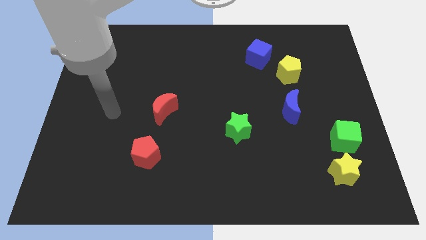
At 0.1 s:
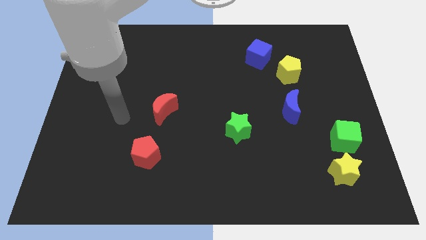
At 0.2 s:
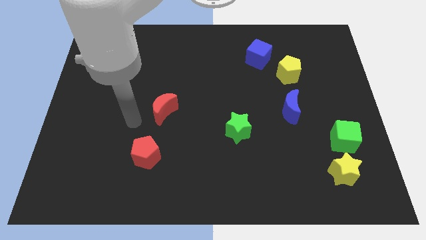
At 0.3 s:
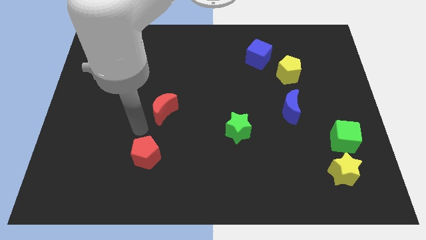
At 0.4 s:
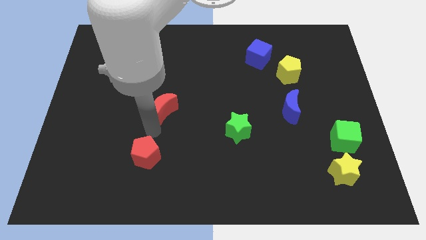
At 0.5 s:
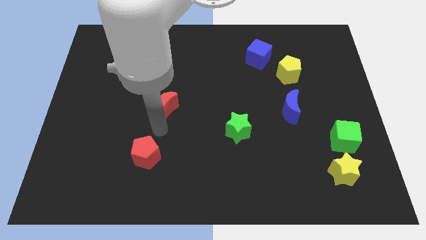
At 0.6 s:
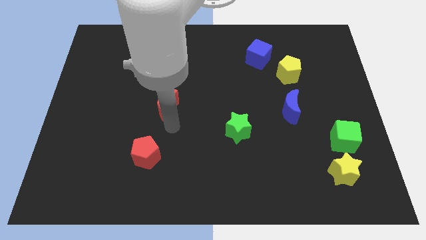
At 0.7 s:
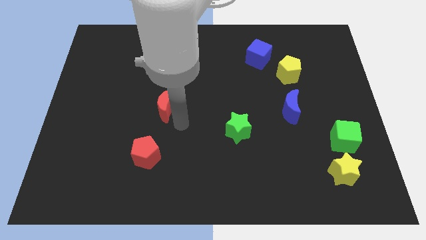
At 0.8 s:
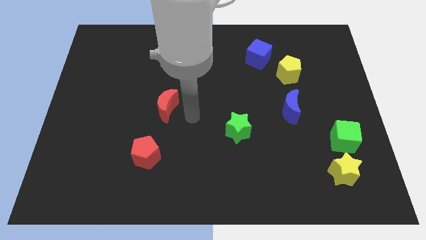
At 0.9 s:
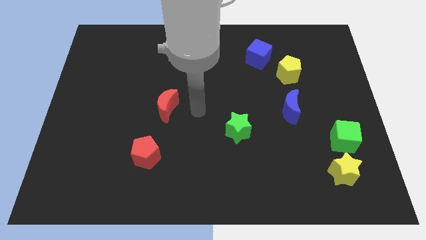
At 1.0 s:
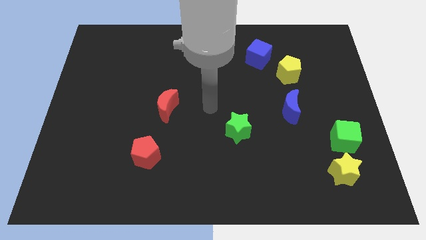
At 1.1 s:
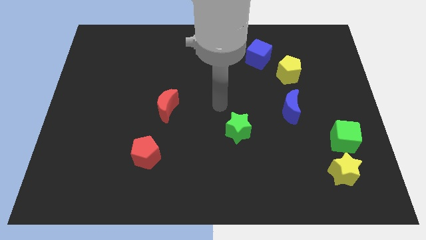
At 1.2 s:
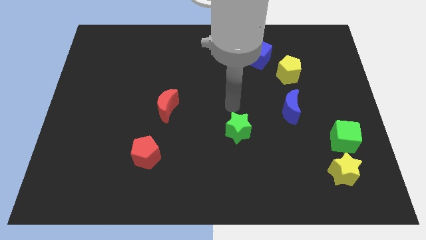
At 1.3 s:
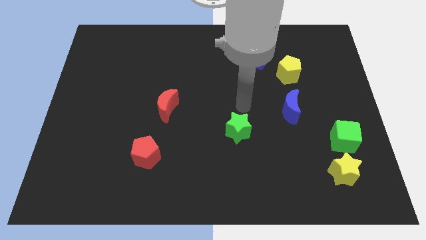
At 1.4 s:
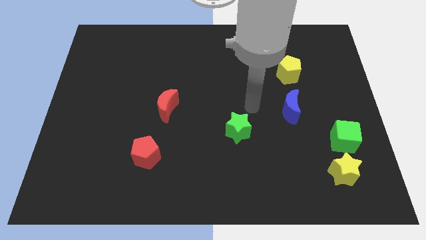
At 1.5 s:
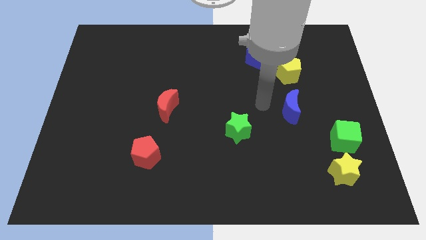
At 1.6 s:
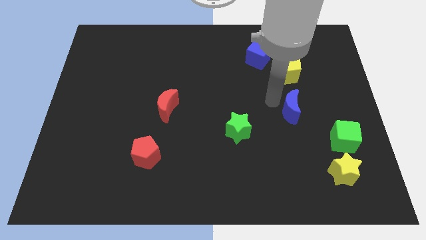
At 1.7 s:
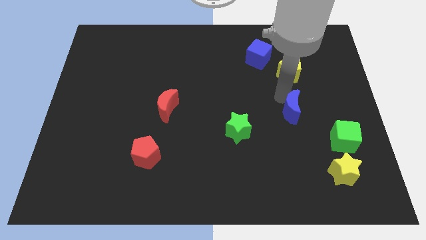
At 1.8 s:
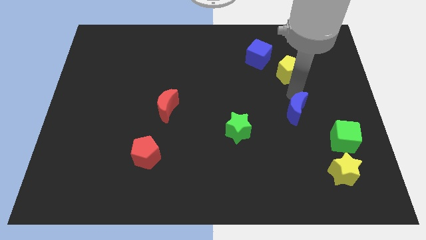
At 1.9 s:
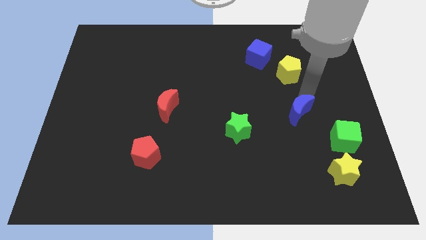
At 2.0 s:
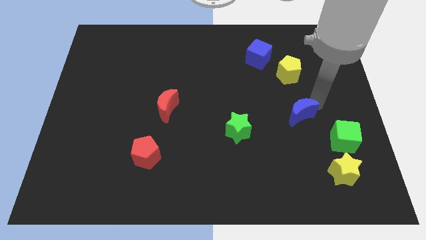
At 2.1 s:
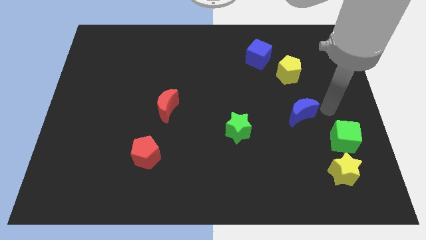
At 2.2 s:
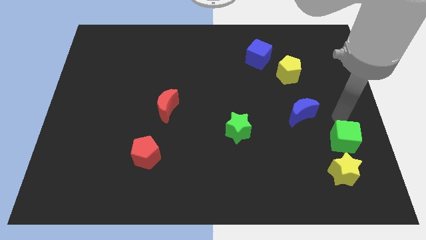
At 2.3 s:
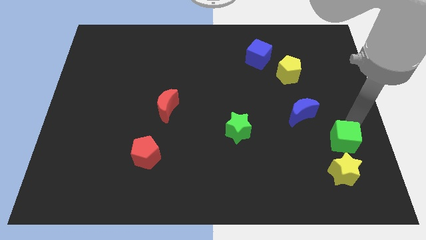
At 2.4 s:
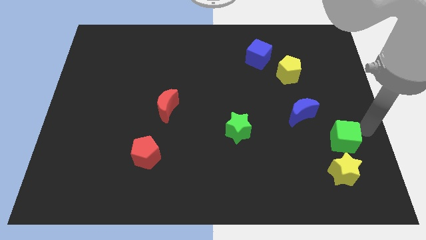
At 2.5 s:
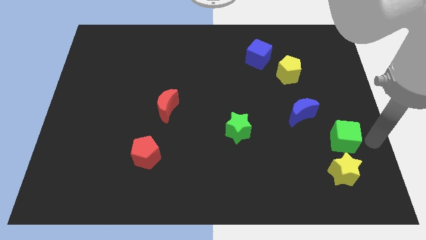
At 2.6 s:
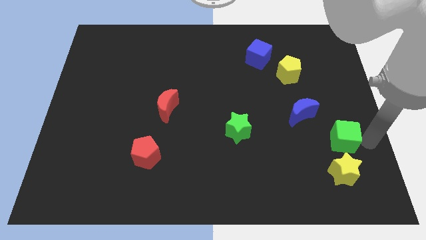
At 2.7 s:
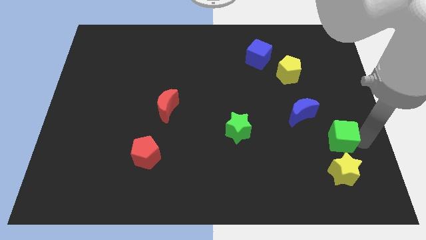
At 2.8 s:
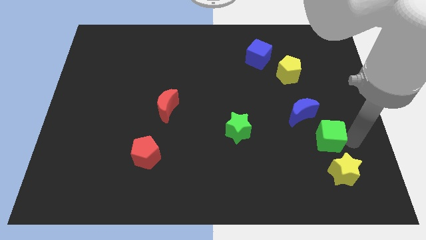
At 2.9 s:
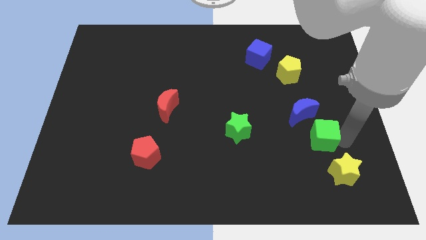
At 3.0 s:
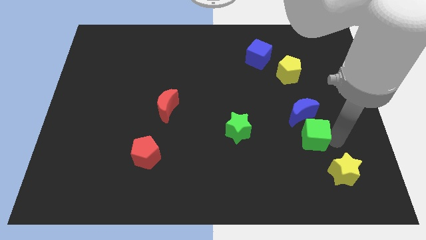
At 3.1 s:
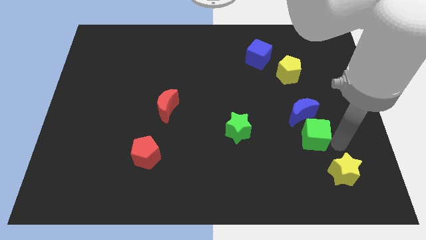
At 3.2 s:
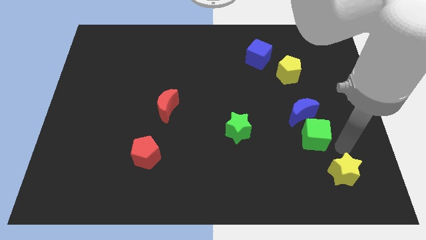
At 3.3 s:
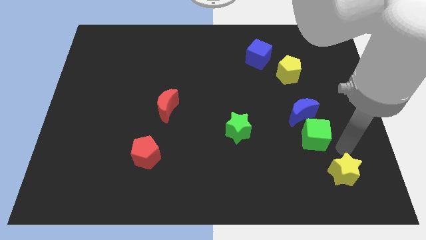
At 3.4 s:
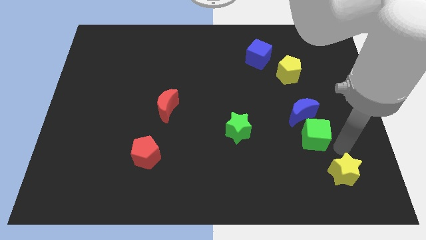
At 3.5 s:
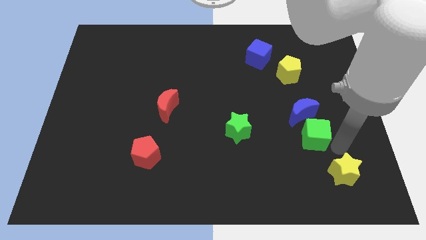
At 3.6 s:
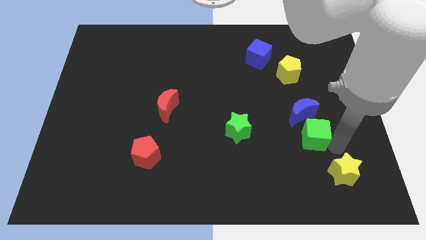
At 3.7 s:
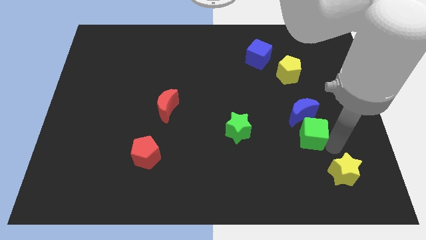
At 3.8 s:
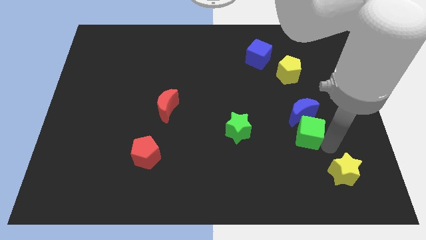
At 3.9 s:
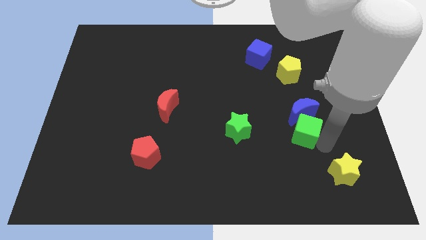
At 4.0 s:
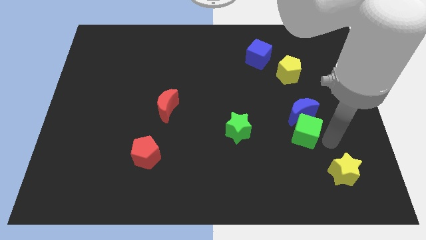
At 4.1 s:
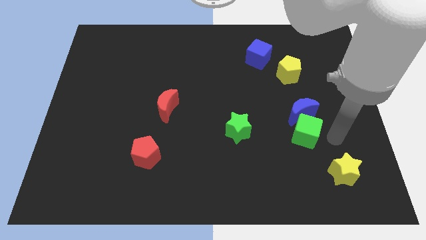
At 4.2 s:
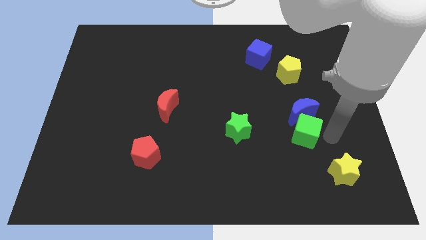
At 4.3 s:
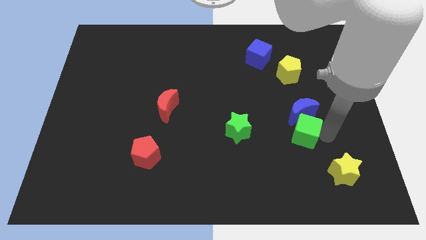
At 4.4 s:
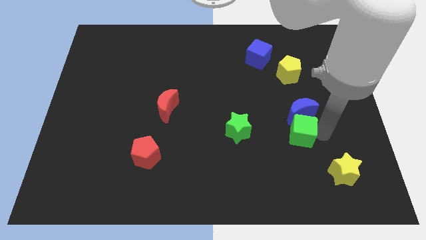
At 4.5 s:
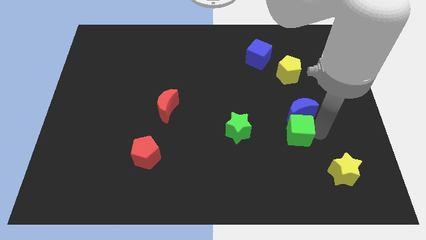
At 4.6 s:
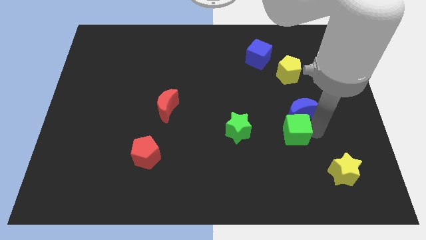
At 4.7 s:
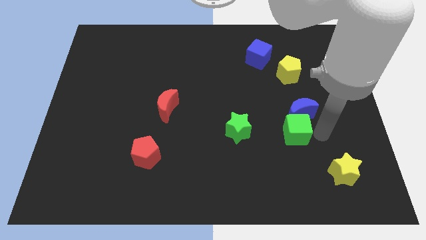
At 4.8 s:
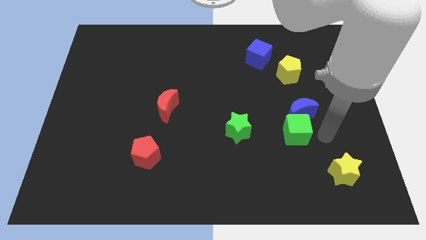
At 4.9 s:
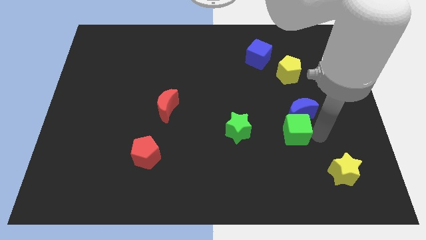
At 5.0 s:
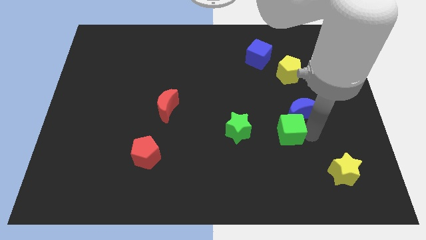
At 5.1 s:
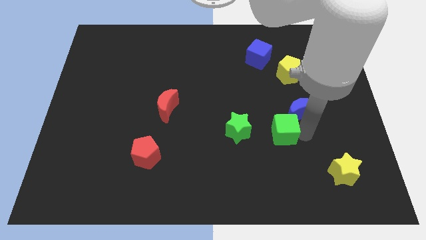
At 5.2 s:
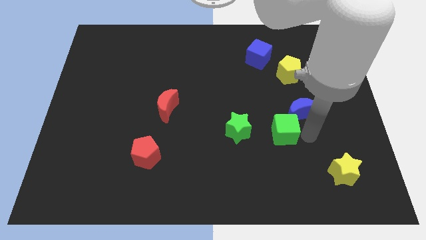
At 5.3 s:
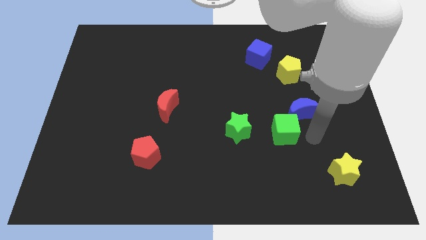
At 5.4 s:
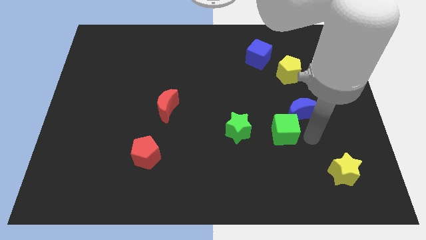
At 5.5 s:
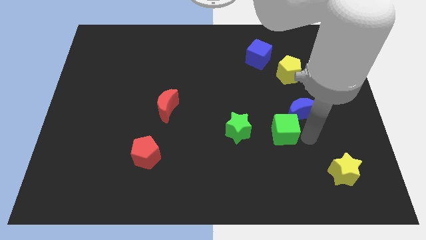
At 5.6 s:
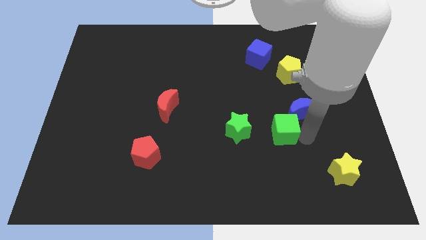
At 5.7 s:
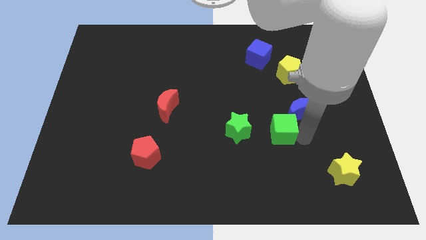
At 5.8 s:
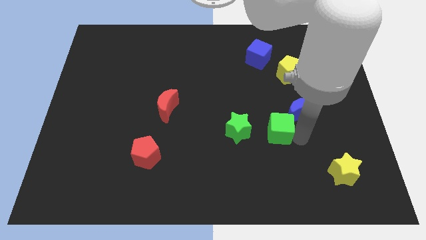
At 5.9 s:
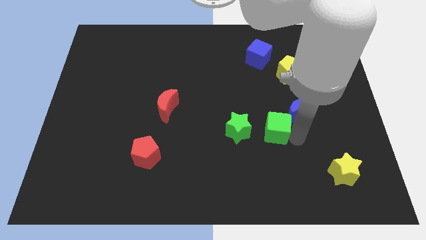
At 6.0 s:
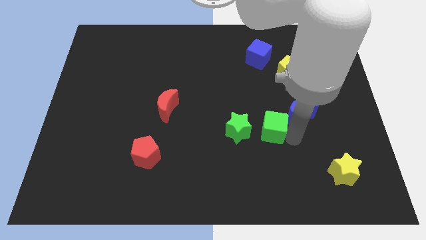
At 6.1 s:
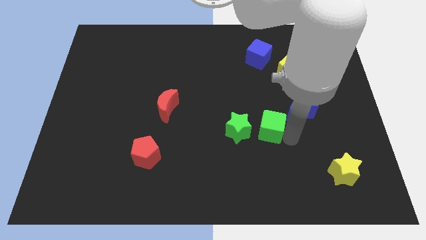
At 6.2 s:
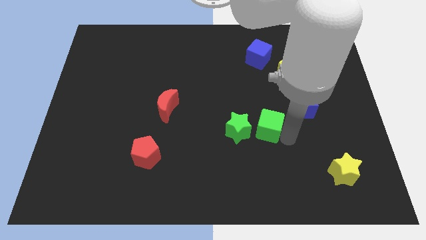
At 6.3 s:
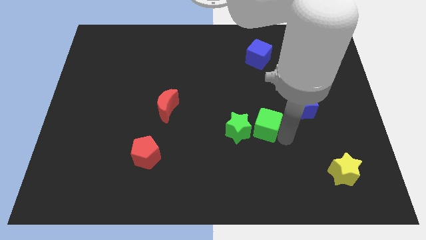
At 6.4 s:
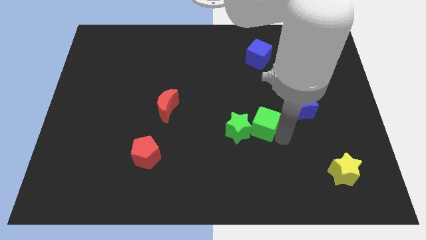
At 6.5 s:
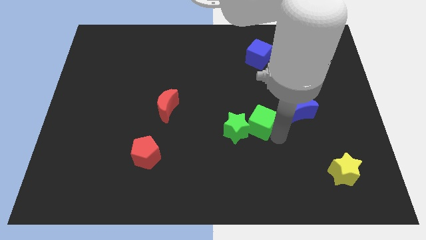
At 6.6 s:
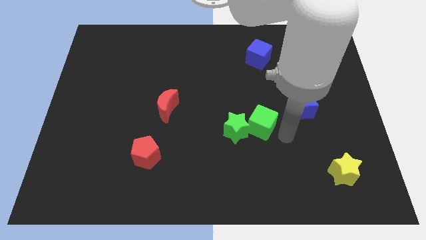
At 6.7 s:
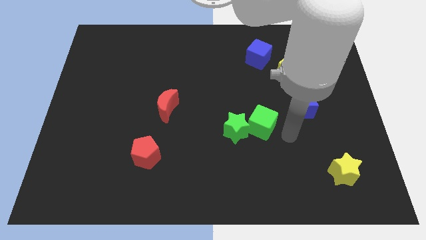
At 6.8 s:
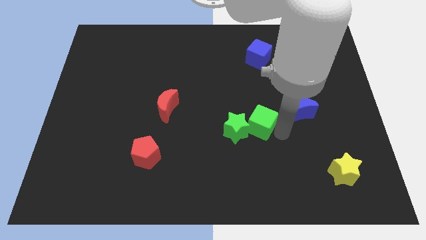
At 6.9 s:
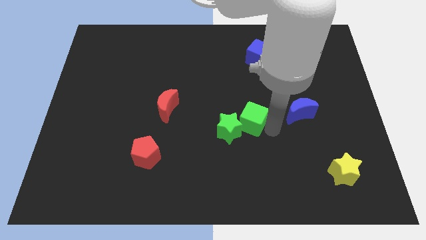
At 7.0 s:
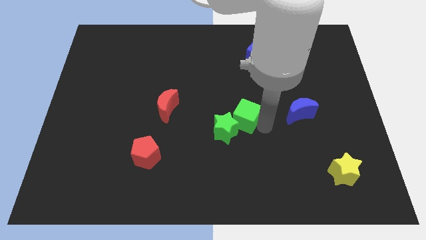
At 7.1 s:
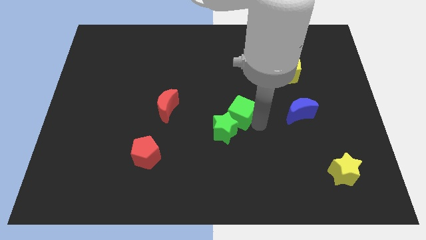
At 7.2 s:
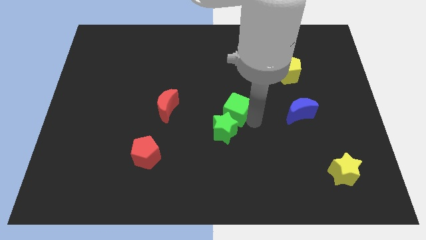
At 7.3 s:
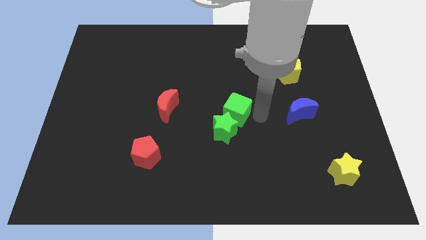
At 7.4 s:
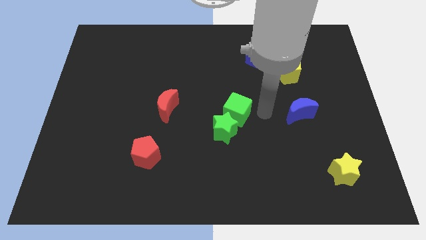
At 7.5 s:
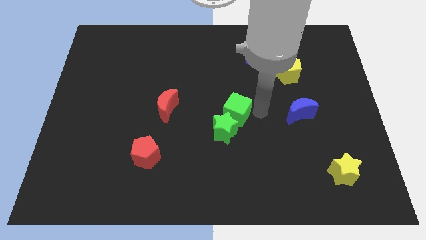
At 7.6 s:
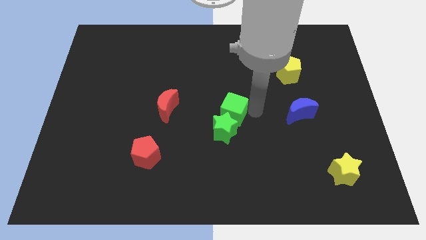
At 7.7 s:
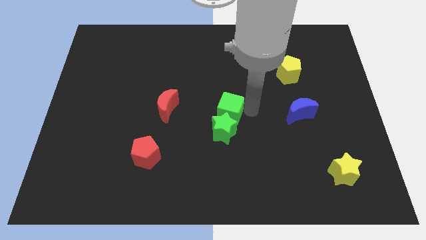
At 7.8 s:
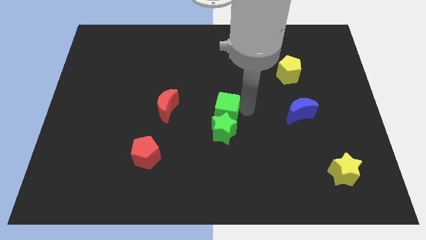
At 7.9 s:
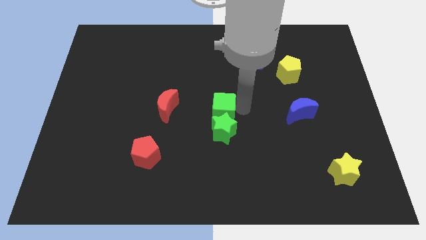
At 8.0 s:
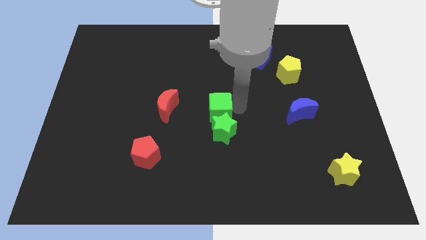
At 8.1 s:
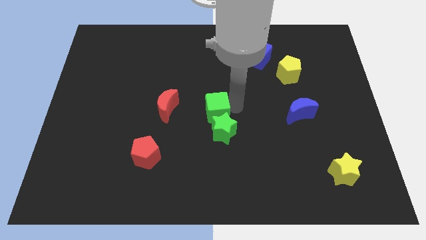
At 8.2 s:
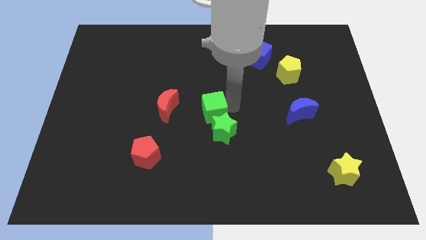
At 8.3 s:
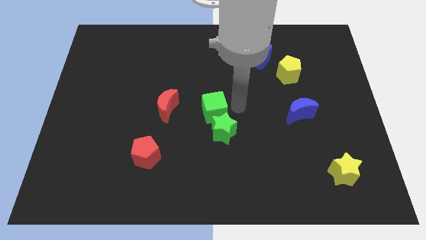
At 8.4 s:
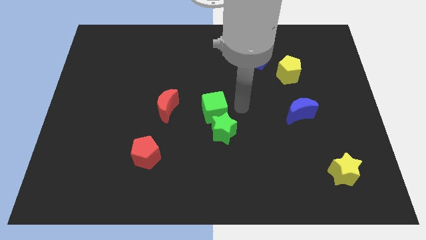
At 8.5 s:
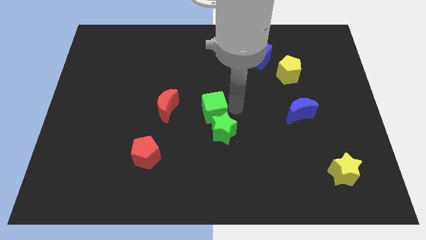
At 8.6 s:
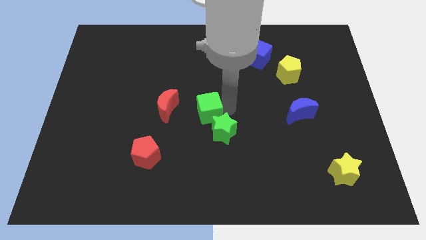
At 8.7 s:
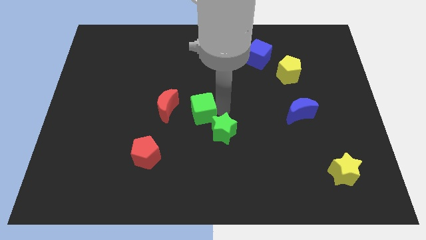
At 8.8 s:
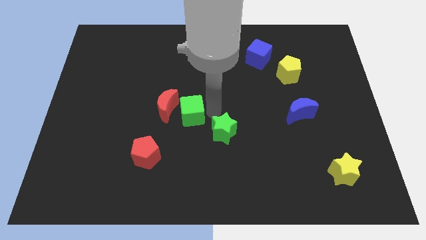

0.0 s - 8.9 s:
move the green cube towards the red moon
